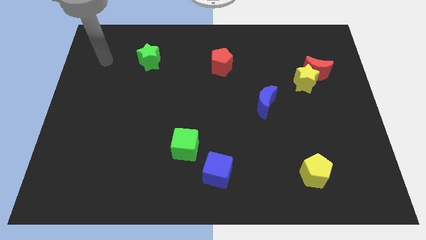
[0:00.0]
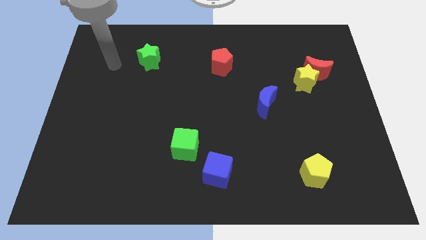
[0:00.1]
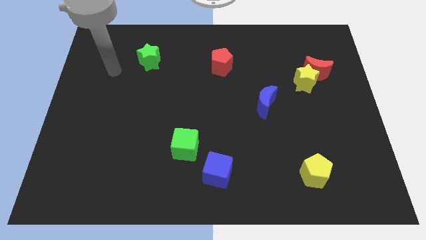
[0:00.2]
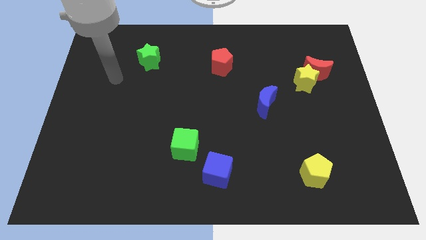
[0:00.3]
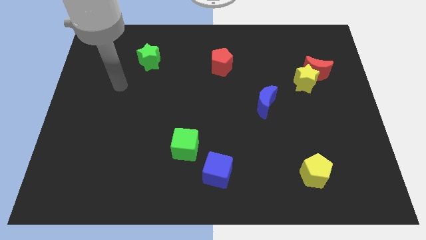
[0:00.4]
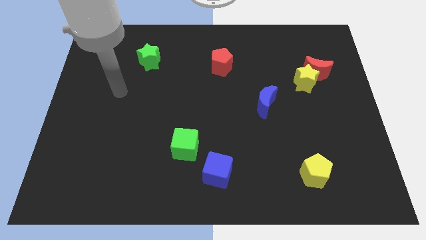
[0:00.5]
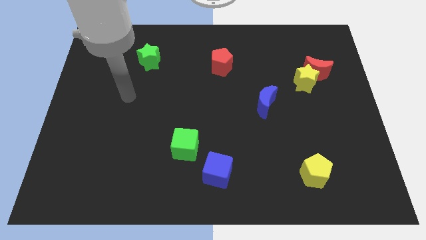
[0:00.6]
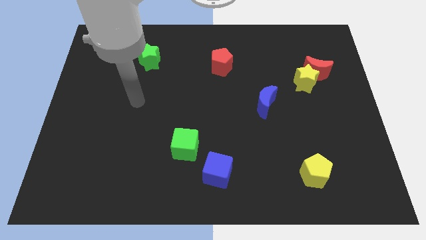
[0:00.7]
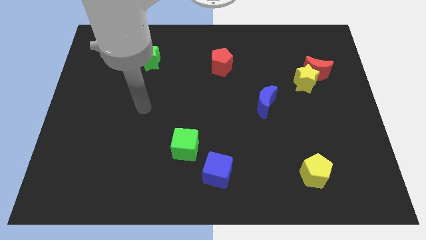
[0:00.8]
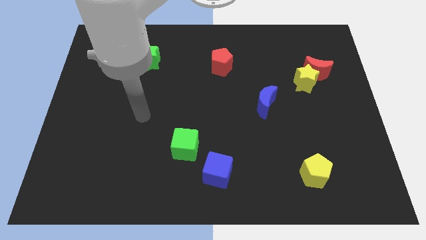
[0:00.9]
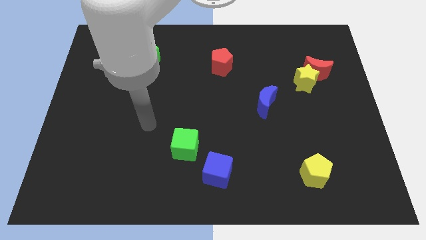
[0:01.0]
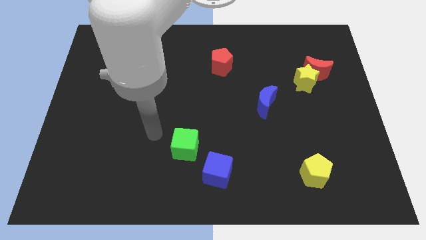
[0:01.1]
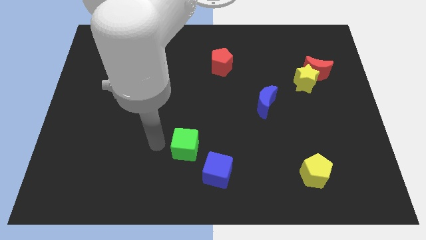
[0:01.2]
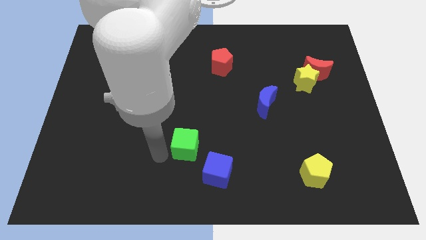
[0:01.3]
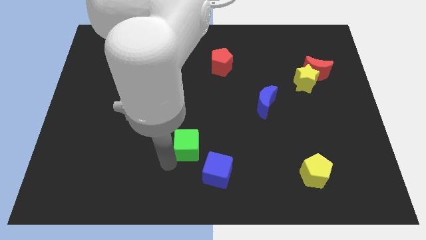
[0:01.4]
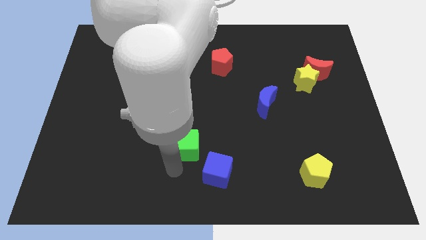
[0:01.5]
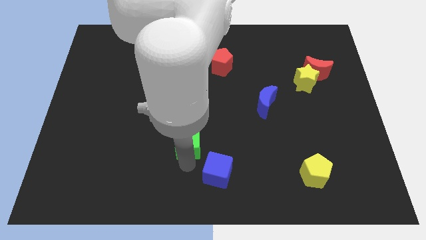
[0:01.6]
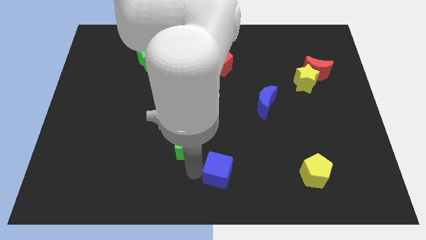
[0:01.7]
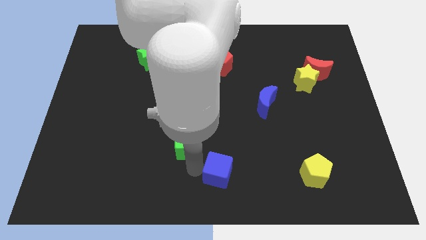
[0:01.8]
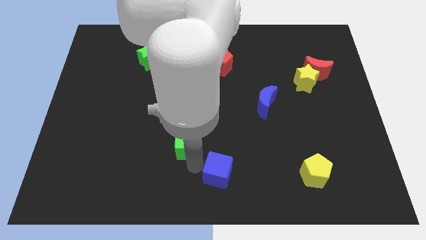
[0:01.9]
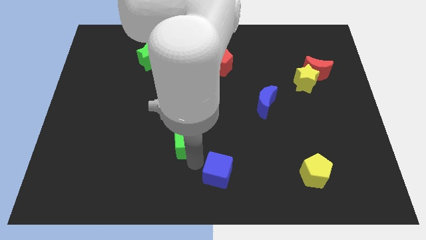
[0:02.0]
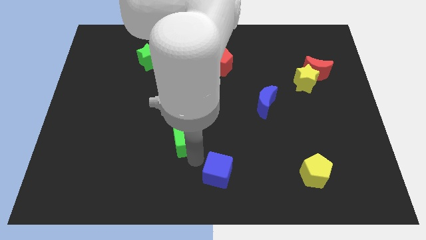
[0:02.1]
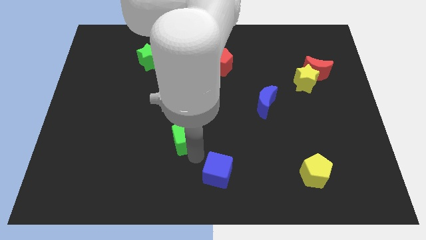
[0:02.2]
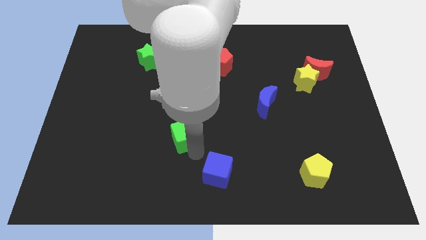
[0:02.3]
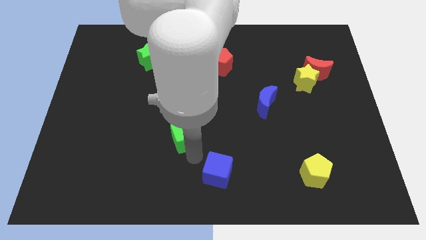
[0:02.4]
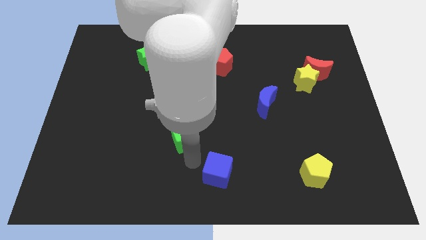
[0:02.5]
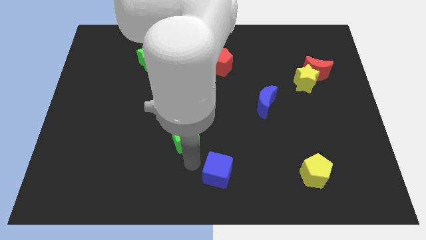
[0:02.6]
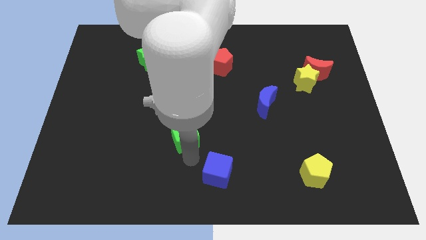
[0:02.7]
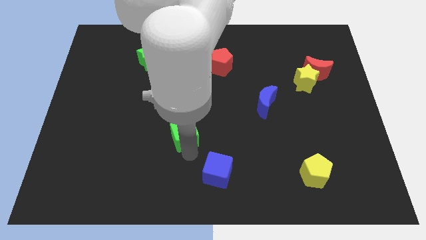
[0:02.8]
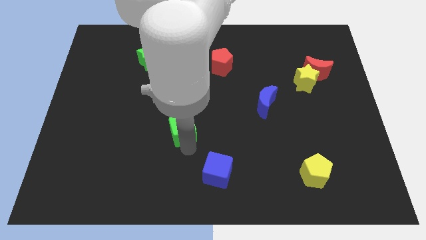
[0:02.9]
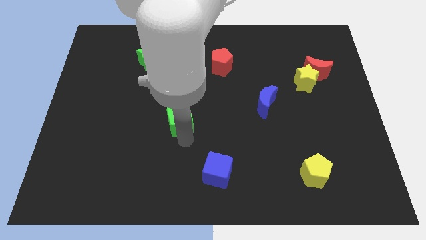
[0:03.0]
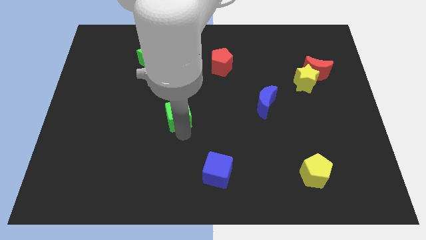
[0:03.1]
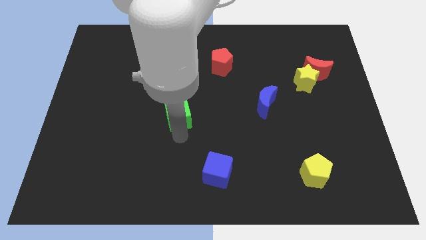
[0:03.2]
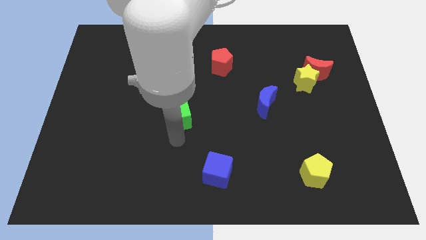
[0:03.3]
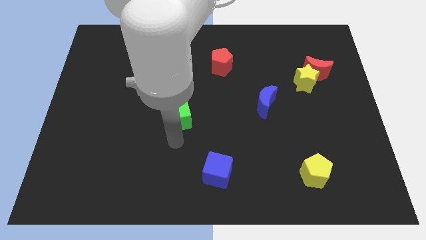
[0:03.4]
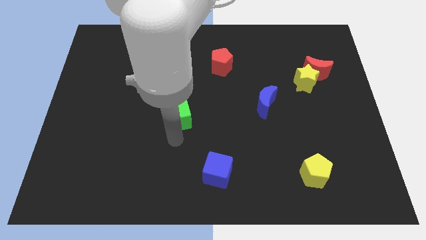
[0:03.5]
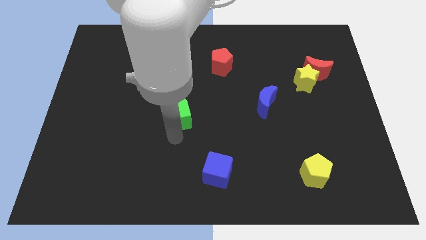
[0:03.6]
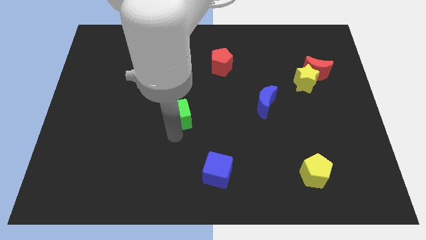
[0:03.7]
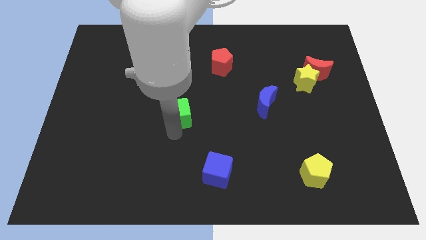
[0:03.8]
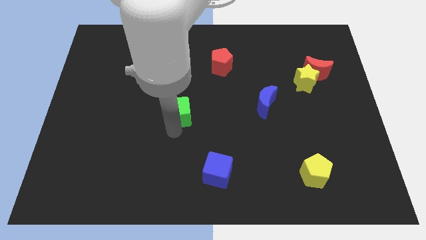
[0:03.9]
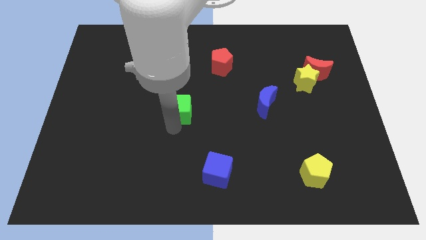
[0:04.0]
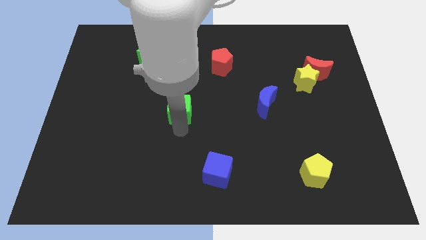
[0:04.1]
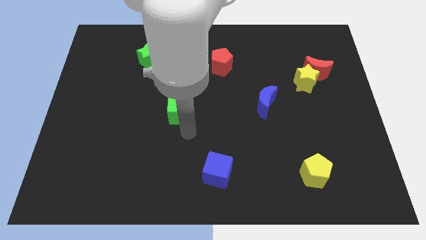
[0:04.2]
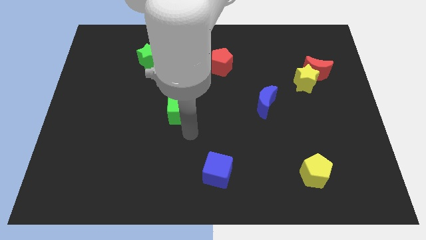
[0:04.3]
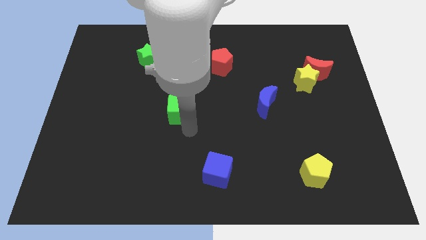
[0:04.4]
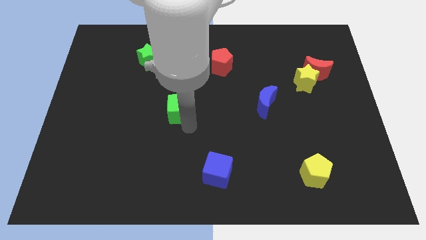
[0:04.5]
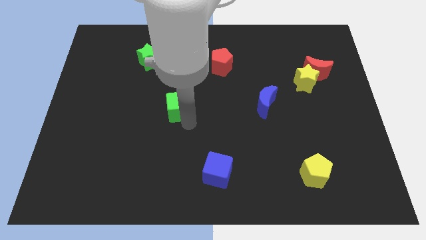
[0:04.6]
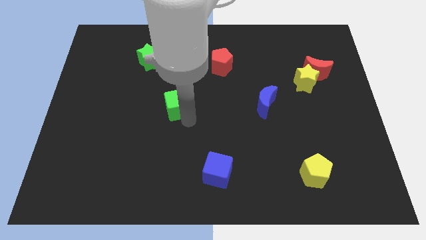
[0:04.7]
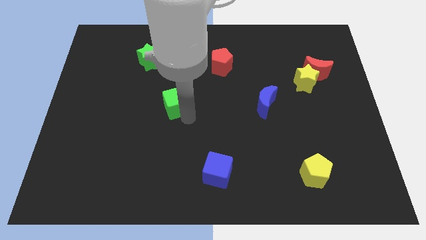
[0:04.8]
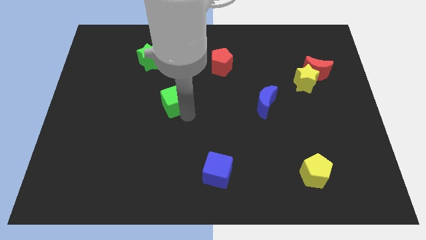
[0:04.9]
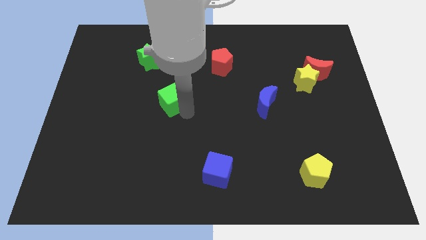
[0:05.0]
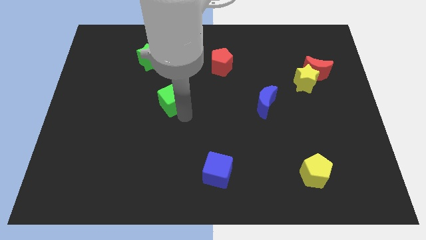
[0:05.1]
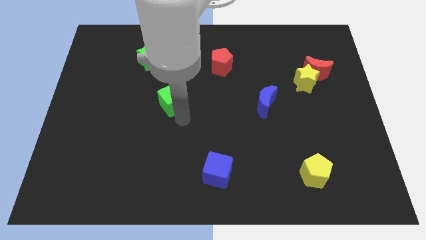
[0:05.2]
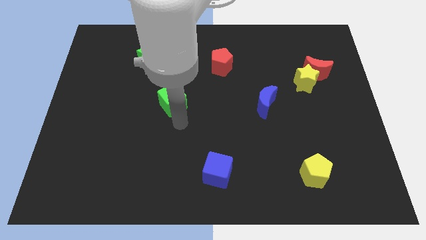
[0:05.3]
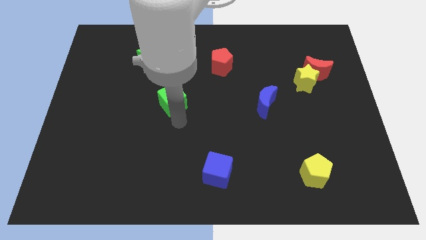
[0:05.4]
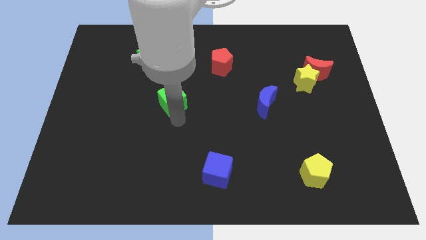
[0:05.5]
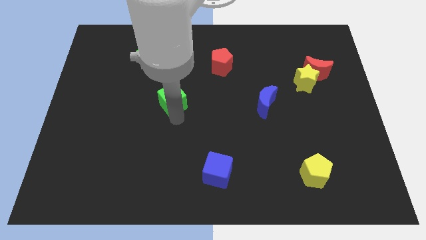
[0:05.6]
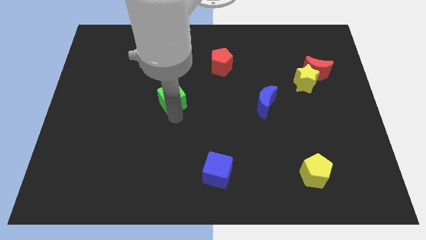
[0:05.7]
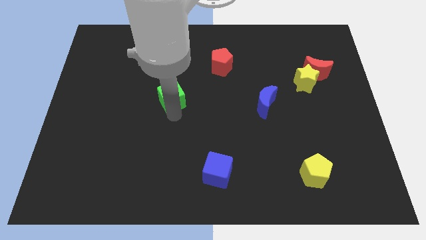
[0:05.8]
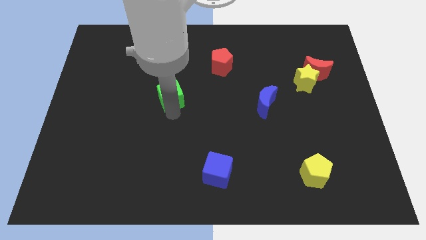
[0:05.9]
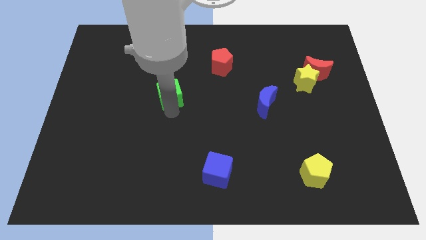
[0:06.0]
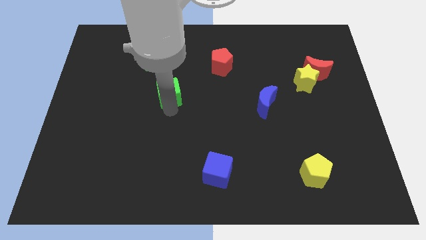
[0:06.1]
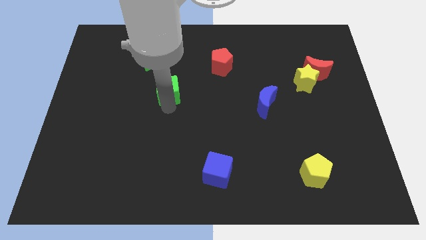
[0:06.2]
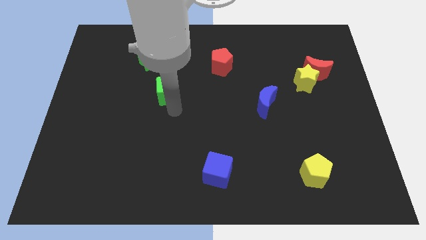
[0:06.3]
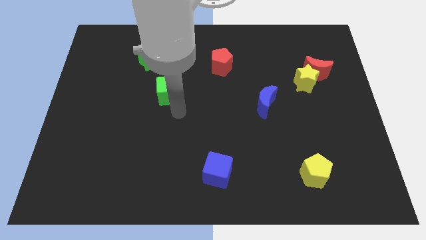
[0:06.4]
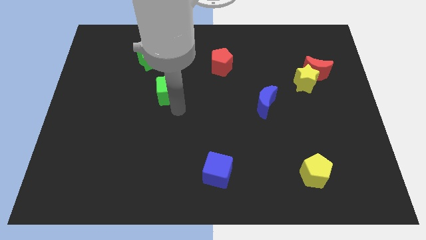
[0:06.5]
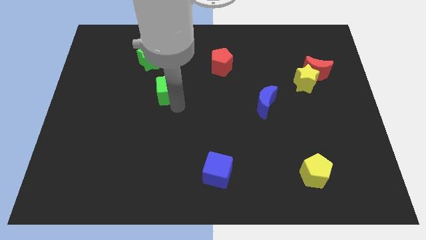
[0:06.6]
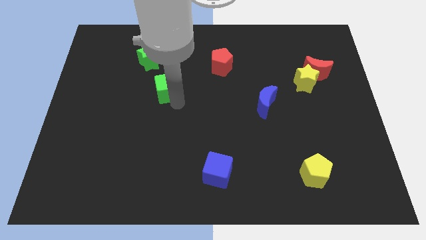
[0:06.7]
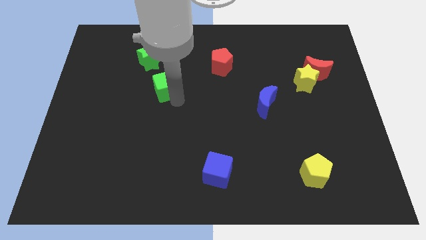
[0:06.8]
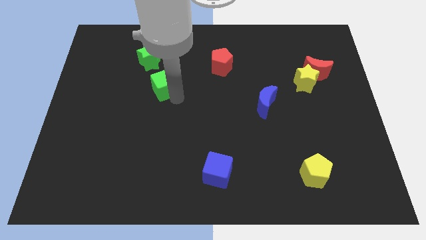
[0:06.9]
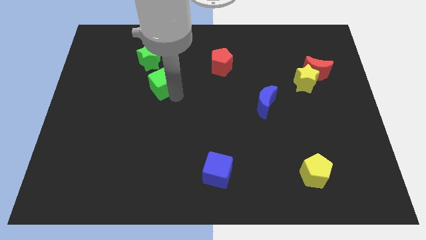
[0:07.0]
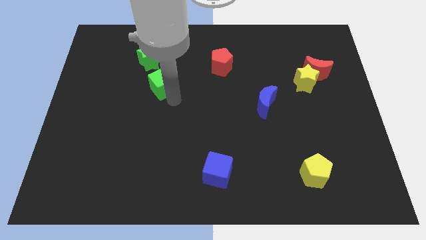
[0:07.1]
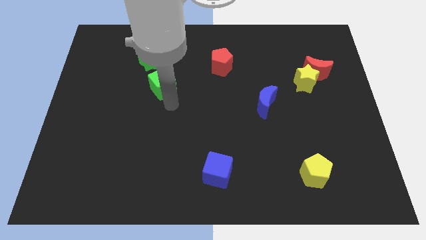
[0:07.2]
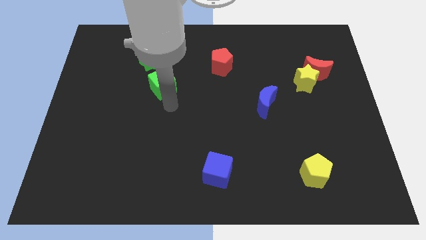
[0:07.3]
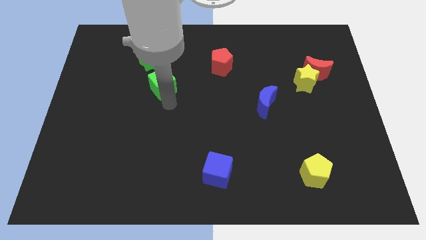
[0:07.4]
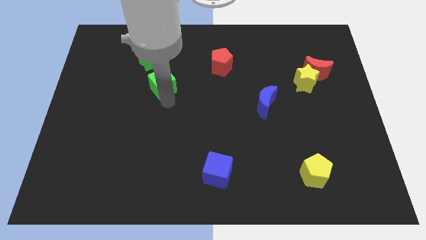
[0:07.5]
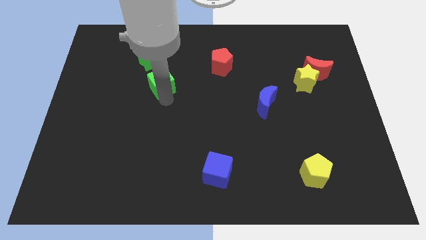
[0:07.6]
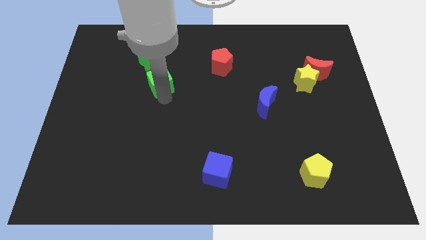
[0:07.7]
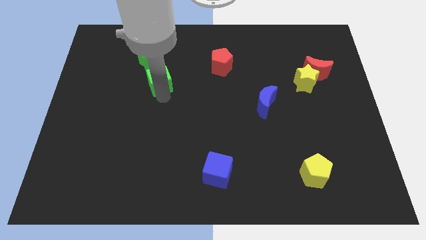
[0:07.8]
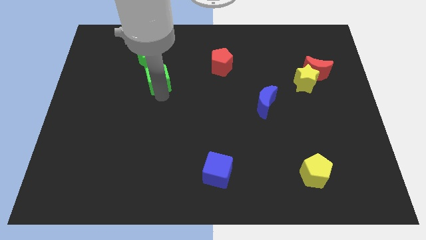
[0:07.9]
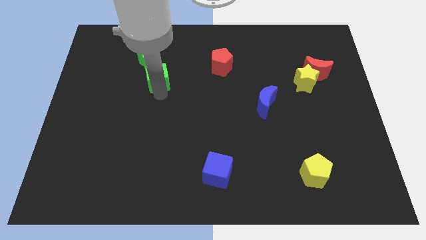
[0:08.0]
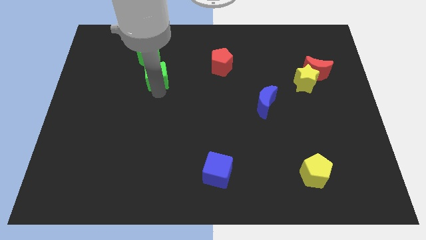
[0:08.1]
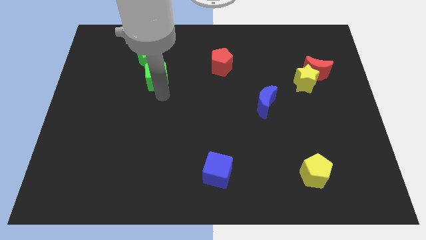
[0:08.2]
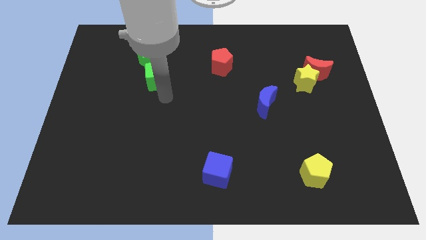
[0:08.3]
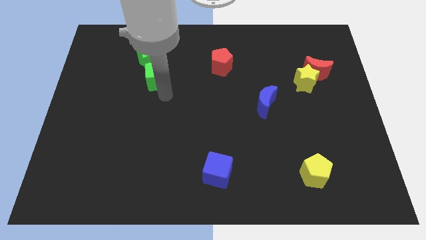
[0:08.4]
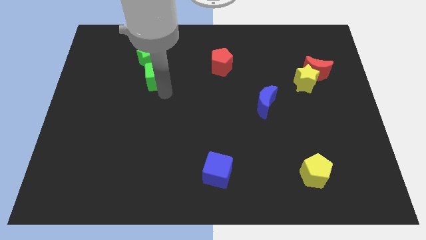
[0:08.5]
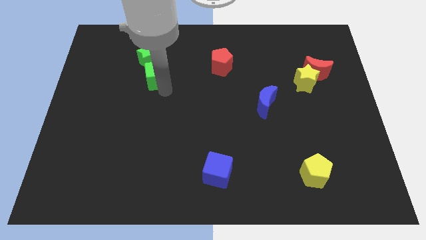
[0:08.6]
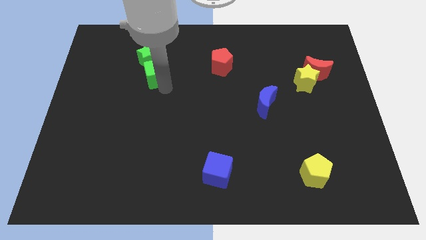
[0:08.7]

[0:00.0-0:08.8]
put the green cube to the green star
